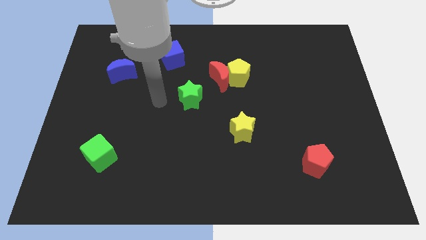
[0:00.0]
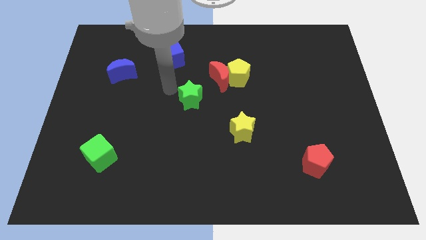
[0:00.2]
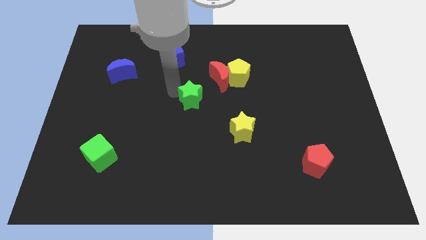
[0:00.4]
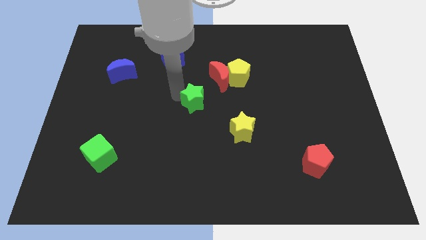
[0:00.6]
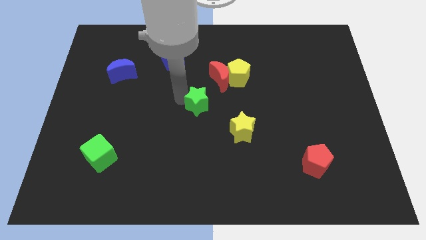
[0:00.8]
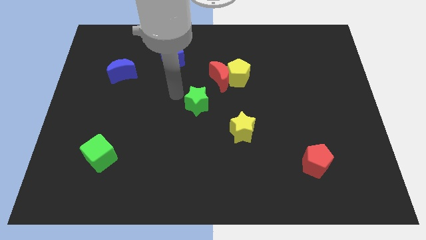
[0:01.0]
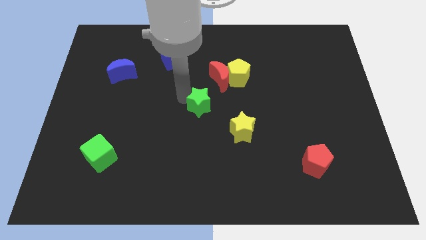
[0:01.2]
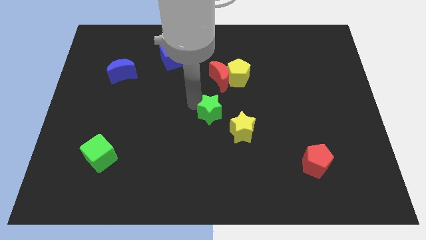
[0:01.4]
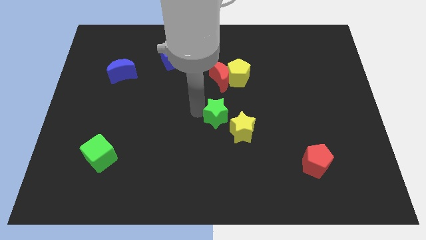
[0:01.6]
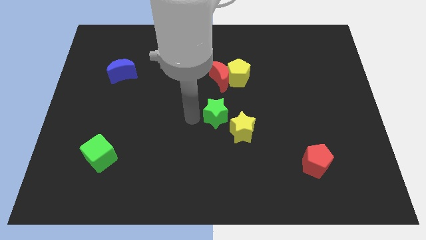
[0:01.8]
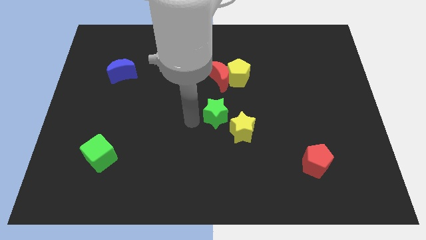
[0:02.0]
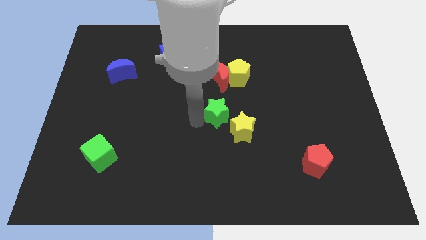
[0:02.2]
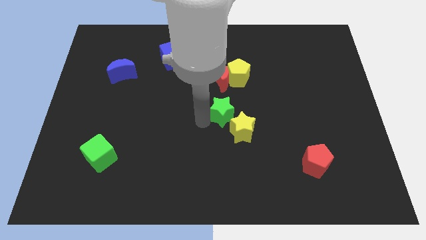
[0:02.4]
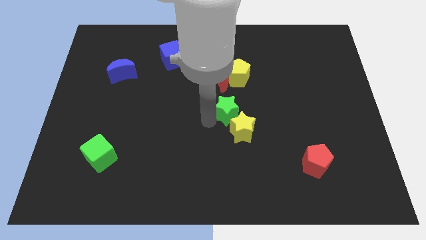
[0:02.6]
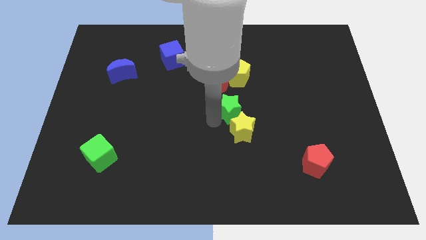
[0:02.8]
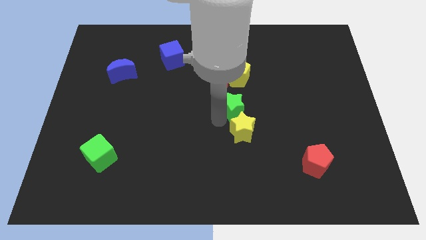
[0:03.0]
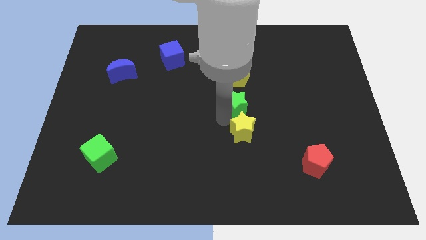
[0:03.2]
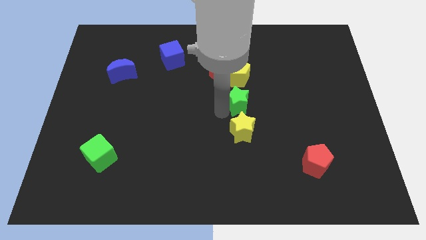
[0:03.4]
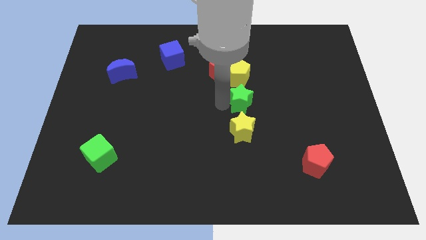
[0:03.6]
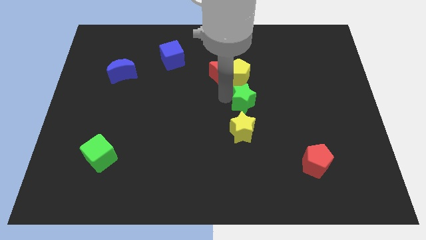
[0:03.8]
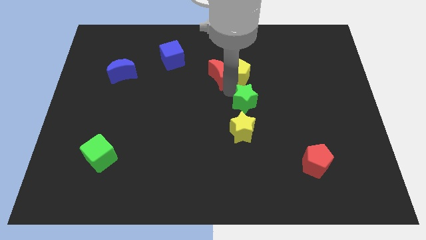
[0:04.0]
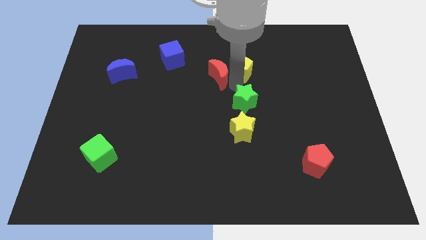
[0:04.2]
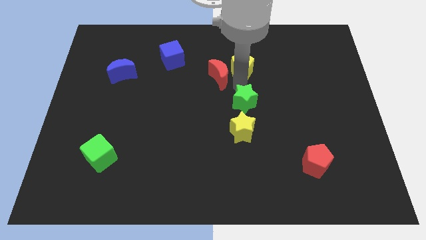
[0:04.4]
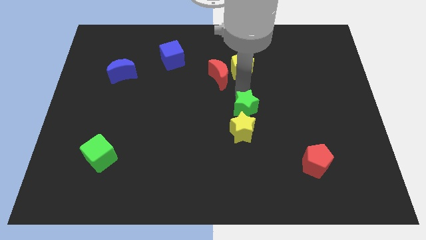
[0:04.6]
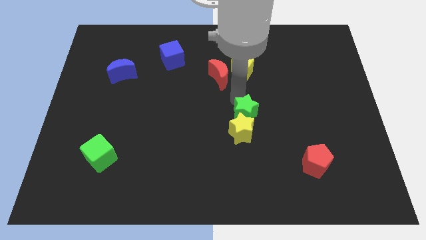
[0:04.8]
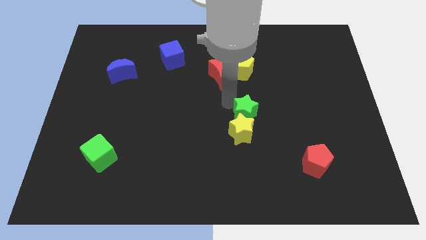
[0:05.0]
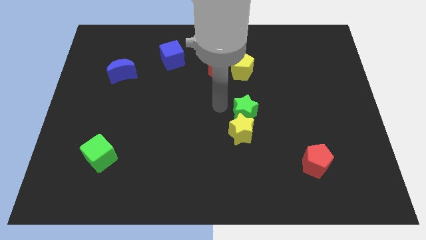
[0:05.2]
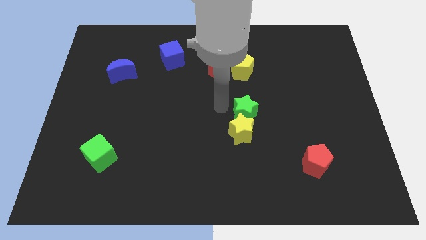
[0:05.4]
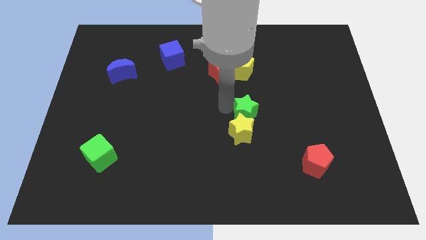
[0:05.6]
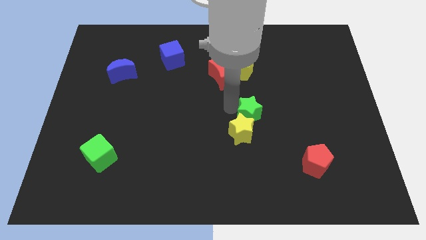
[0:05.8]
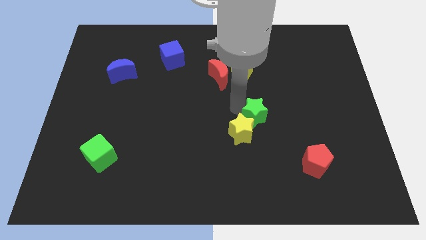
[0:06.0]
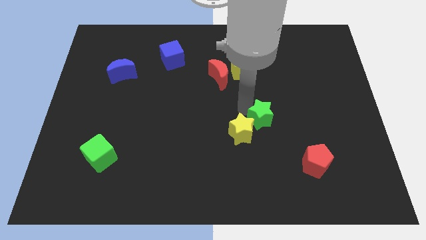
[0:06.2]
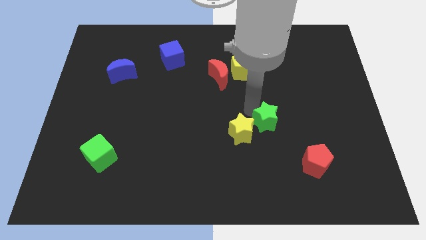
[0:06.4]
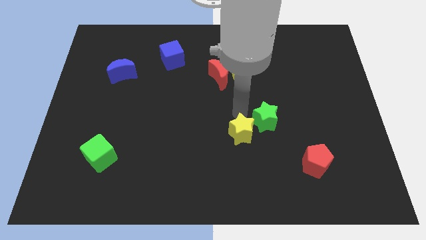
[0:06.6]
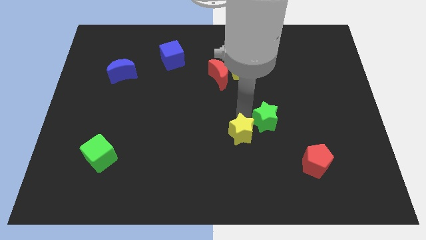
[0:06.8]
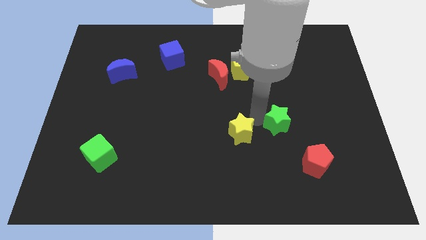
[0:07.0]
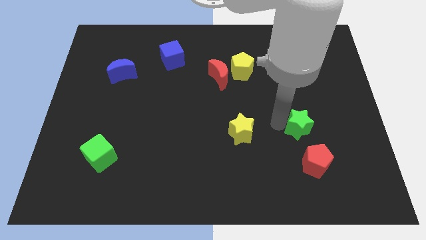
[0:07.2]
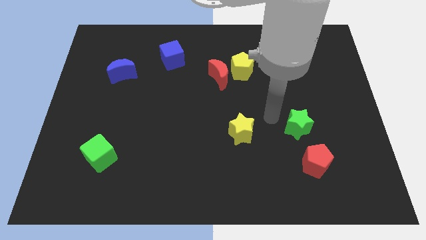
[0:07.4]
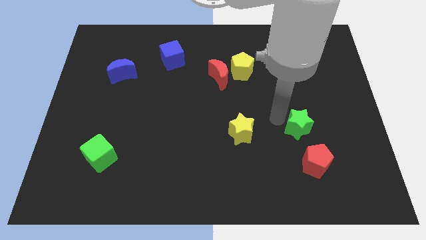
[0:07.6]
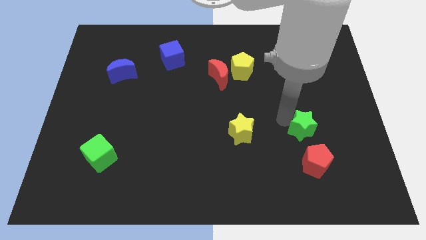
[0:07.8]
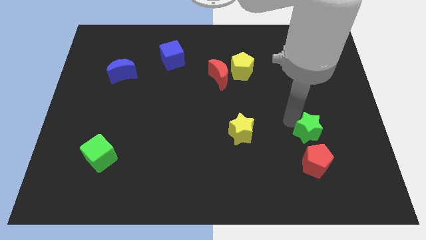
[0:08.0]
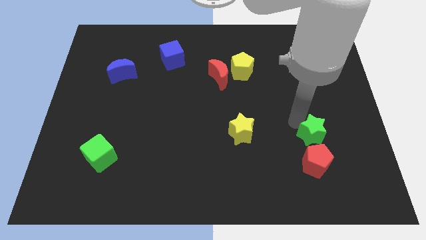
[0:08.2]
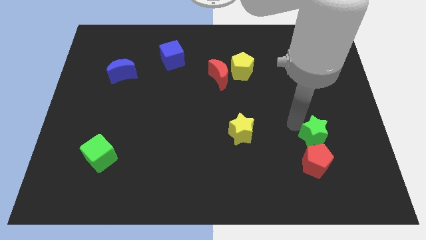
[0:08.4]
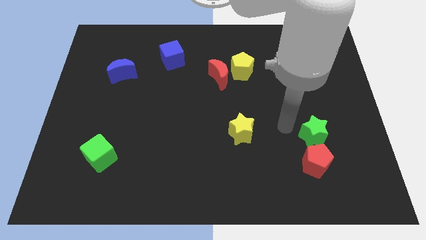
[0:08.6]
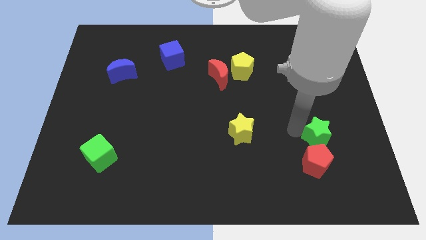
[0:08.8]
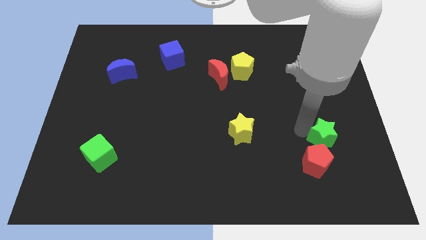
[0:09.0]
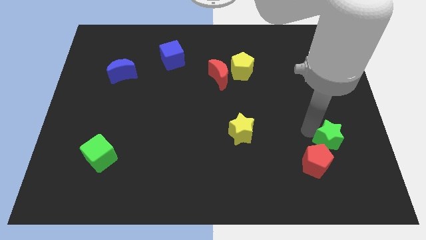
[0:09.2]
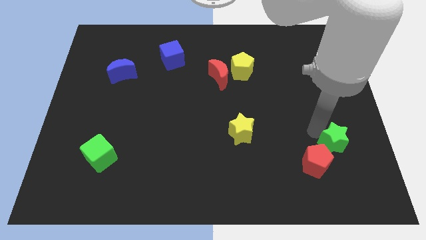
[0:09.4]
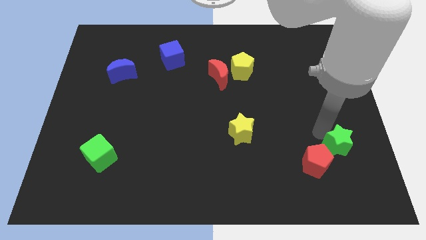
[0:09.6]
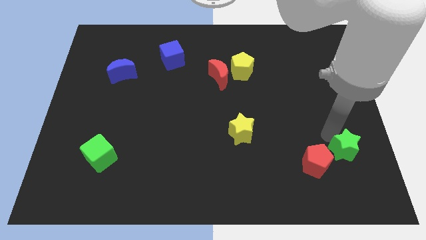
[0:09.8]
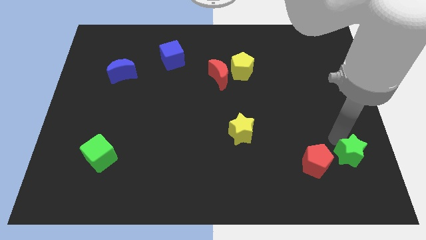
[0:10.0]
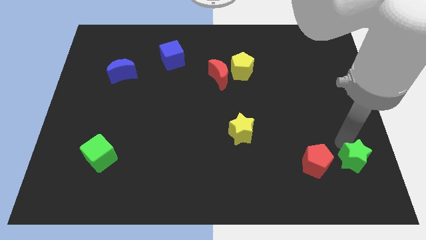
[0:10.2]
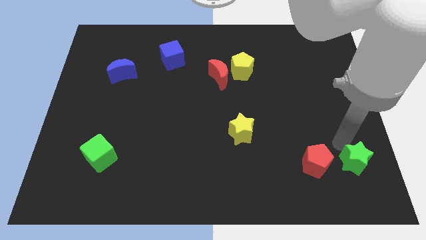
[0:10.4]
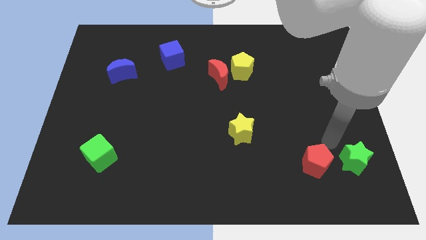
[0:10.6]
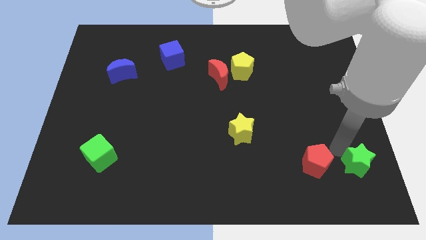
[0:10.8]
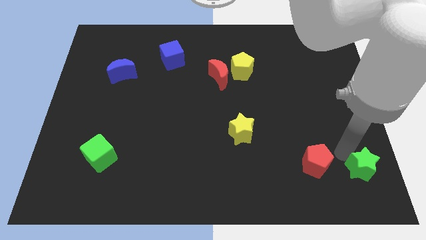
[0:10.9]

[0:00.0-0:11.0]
put the green star to the bottom right of the board

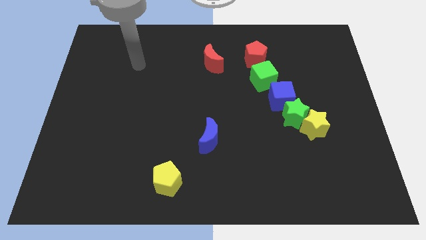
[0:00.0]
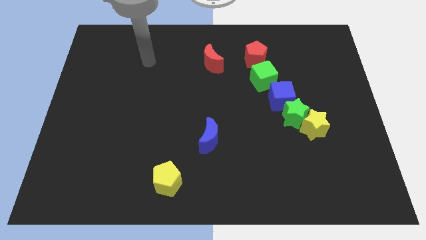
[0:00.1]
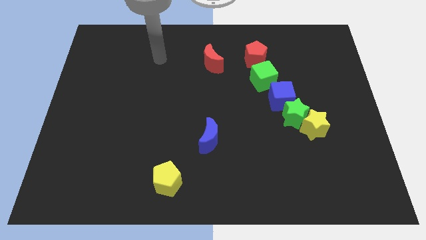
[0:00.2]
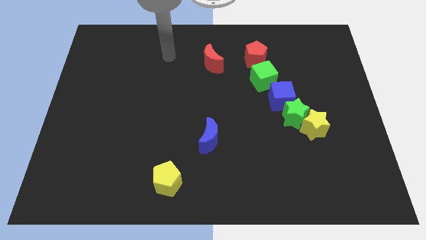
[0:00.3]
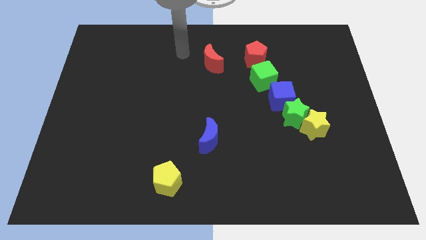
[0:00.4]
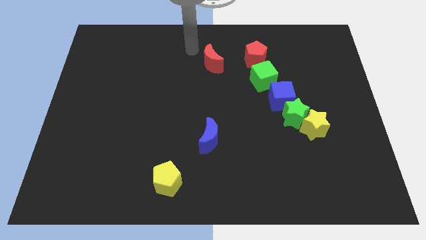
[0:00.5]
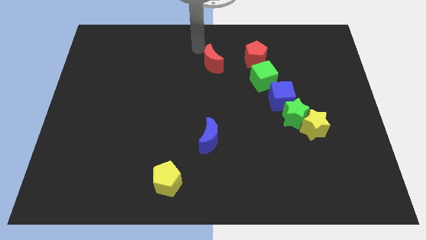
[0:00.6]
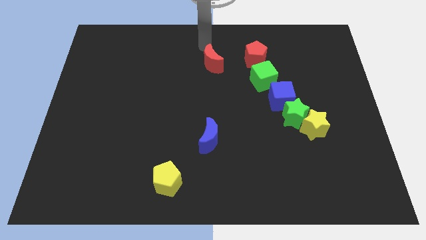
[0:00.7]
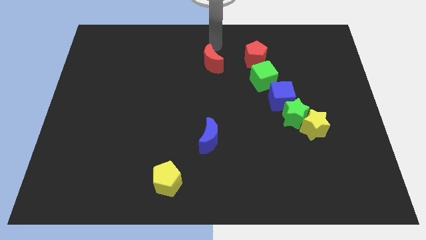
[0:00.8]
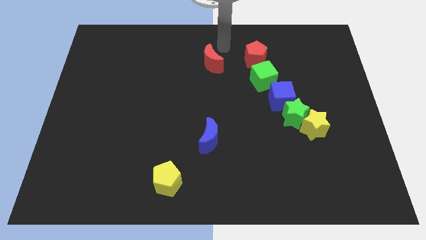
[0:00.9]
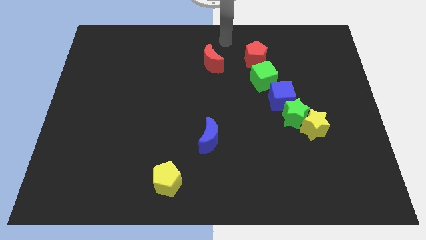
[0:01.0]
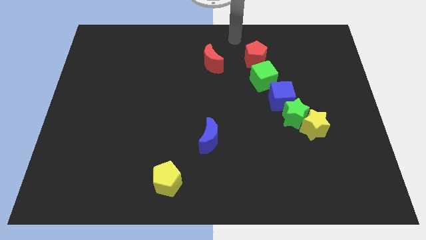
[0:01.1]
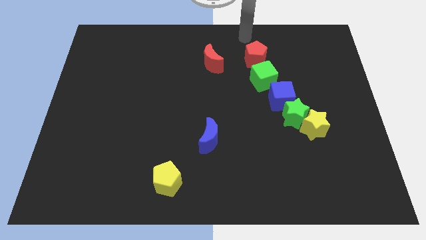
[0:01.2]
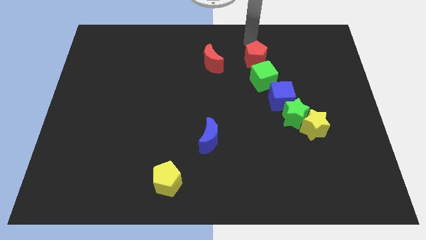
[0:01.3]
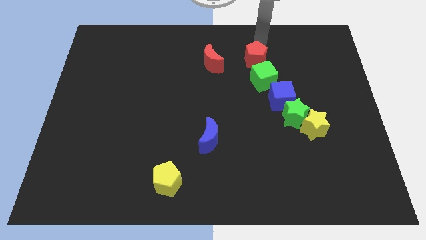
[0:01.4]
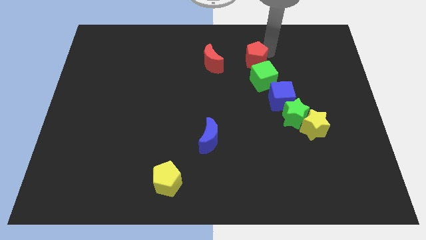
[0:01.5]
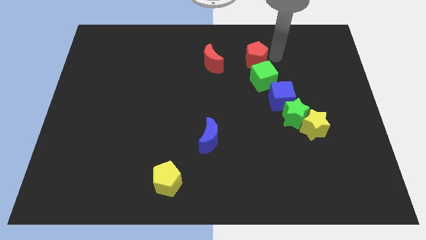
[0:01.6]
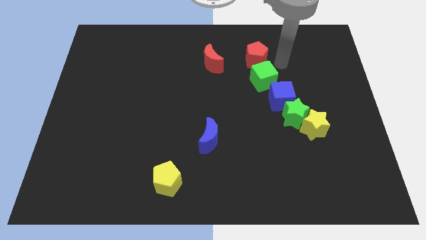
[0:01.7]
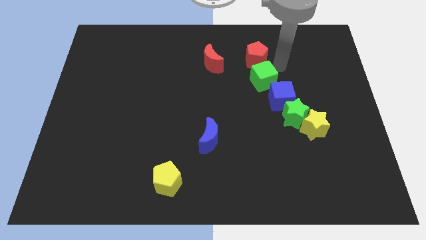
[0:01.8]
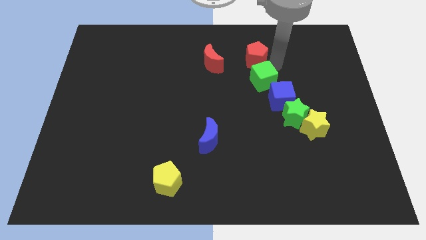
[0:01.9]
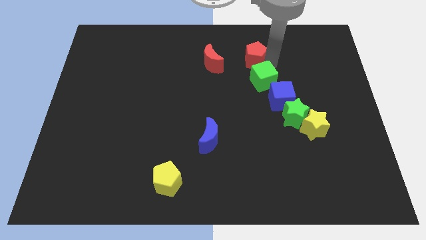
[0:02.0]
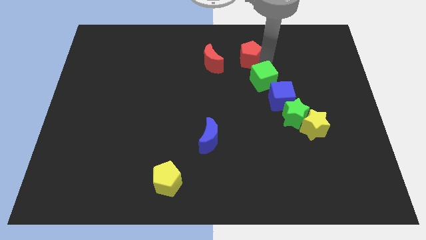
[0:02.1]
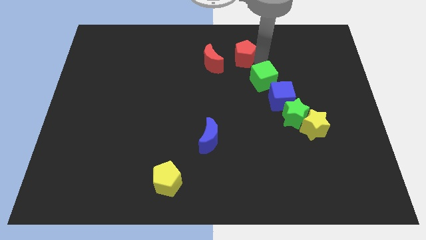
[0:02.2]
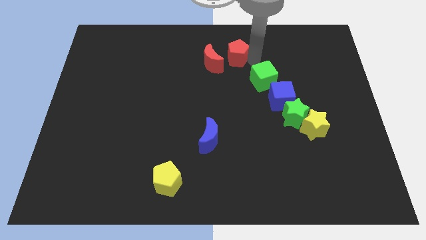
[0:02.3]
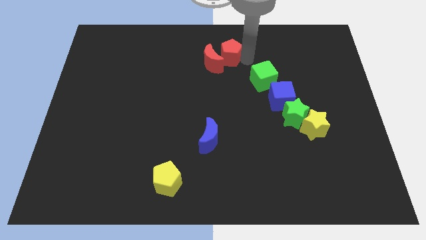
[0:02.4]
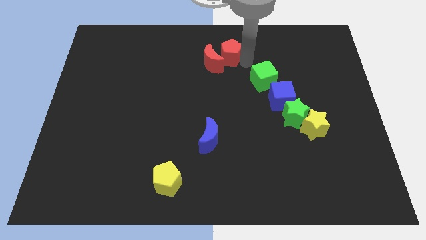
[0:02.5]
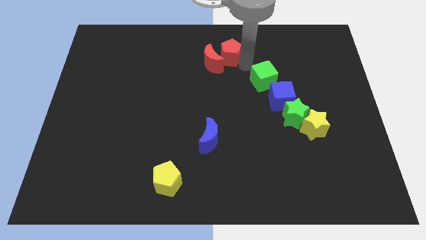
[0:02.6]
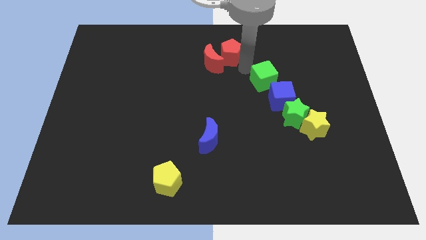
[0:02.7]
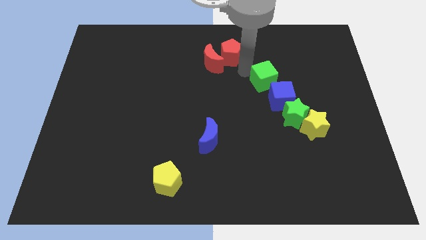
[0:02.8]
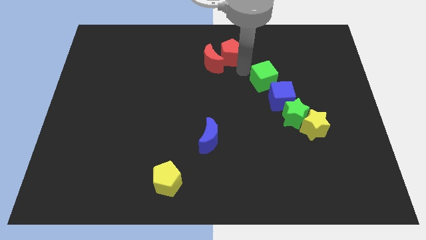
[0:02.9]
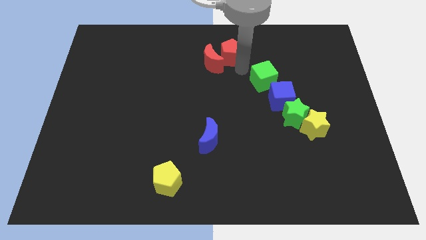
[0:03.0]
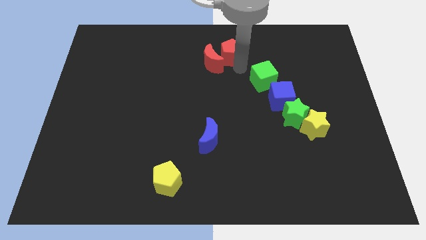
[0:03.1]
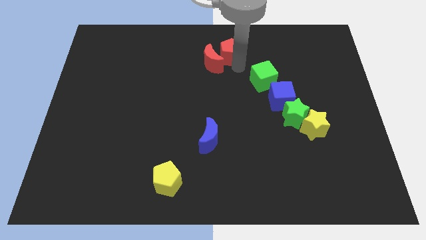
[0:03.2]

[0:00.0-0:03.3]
move the red pentagon to the top
